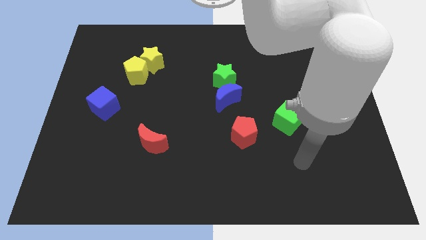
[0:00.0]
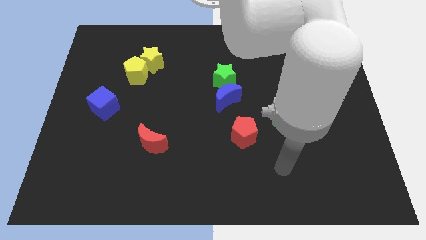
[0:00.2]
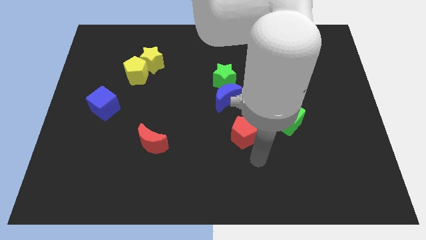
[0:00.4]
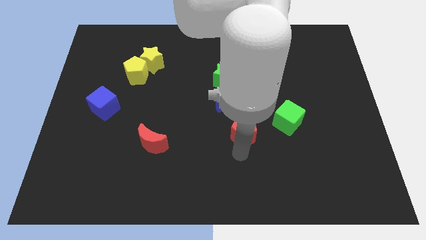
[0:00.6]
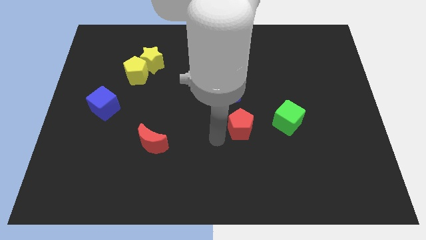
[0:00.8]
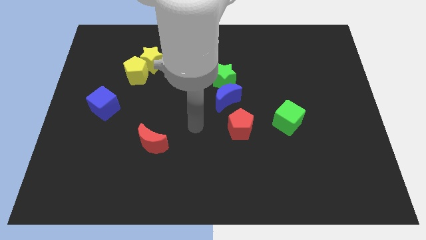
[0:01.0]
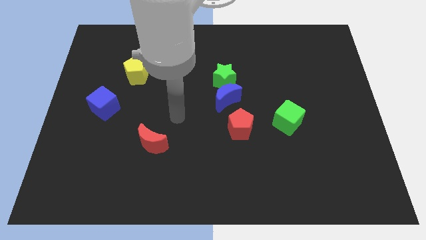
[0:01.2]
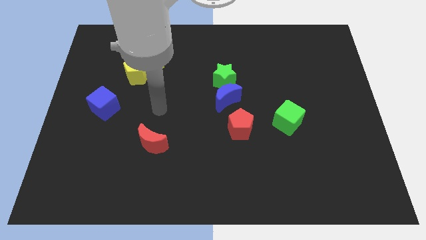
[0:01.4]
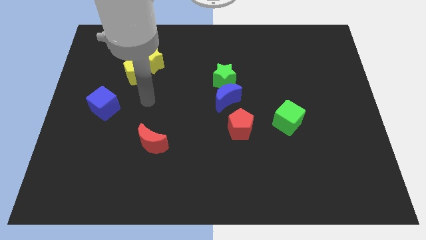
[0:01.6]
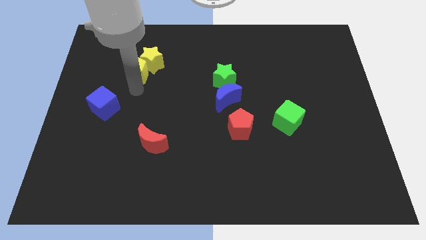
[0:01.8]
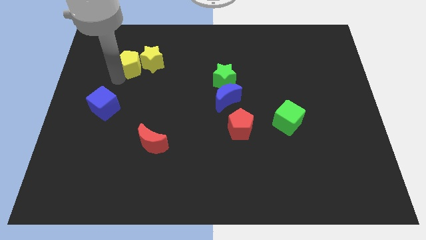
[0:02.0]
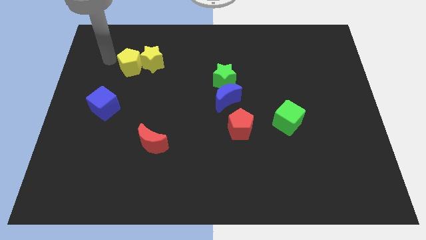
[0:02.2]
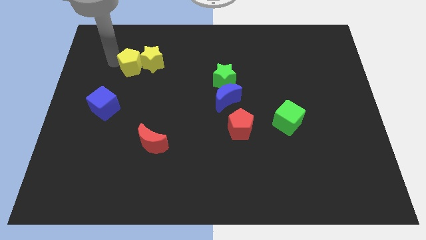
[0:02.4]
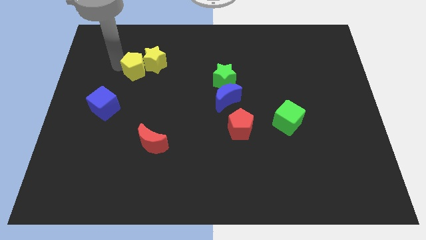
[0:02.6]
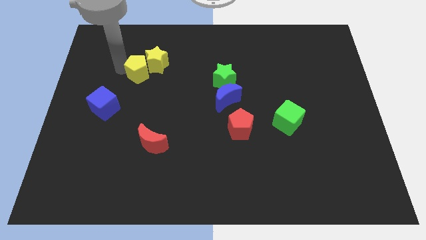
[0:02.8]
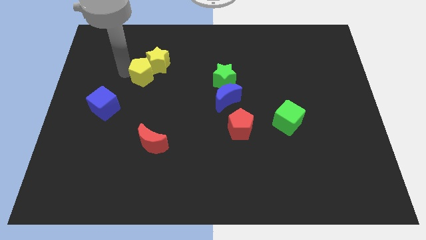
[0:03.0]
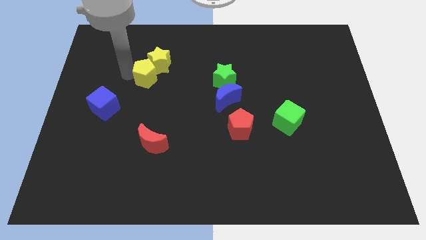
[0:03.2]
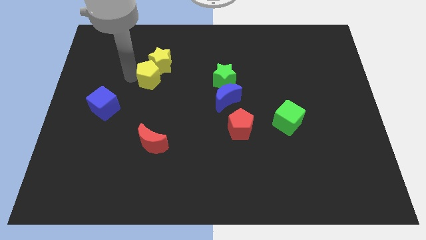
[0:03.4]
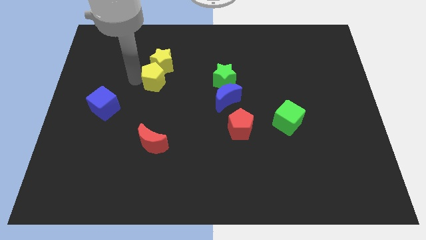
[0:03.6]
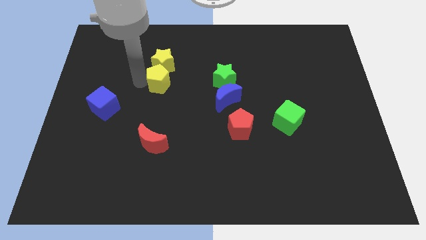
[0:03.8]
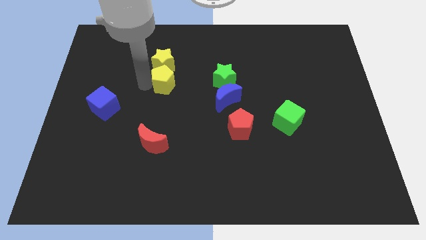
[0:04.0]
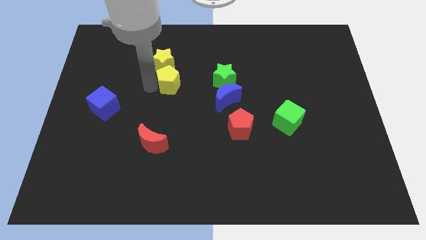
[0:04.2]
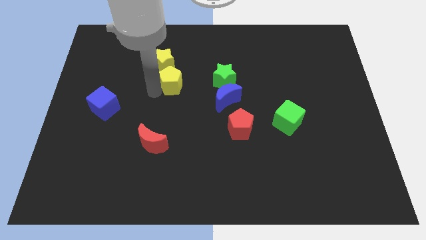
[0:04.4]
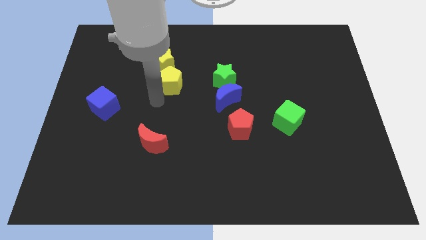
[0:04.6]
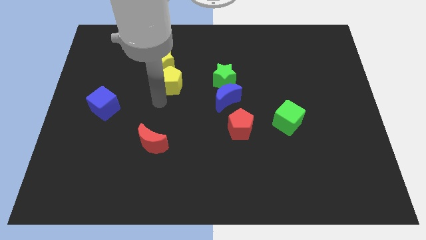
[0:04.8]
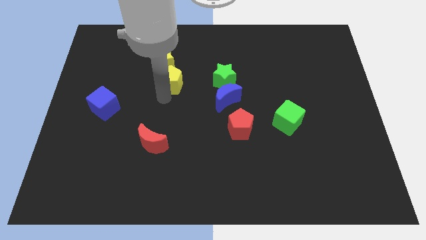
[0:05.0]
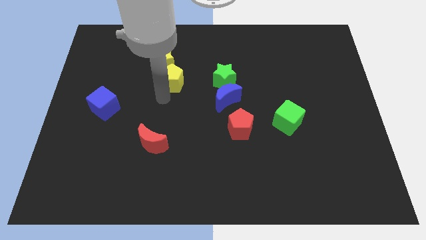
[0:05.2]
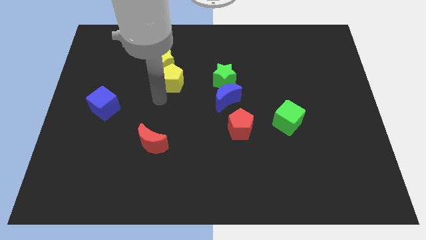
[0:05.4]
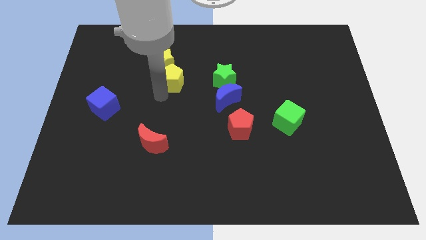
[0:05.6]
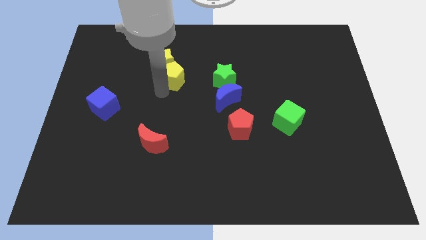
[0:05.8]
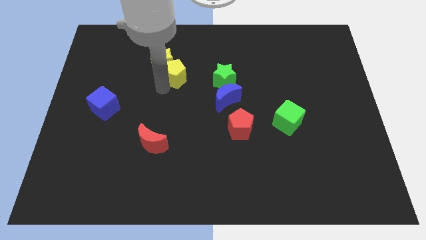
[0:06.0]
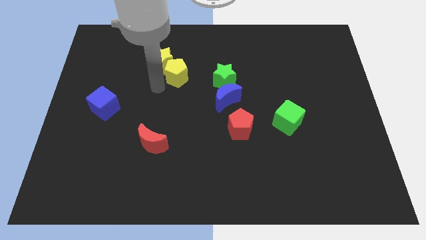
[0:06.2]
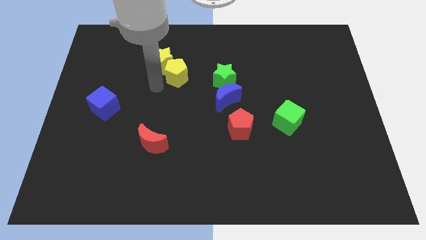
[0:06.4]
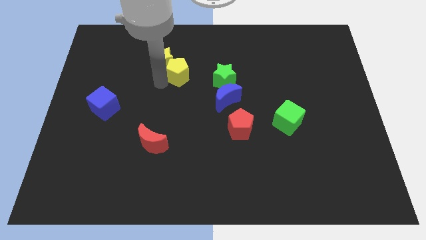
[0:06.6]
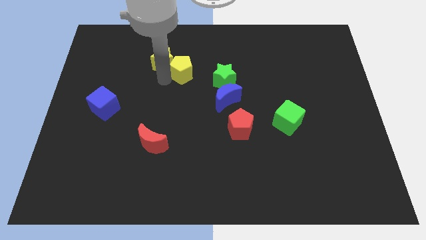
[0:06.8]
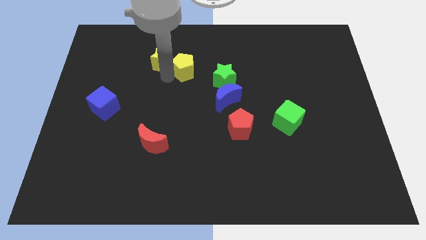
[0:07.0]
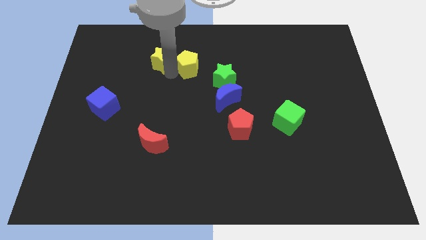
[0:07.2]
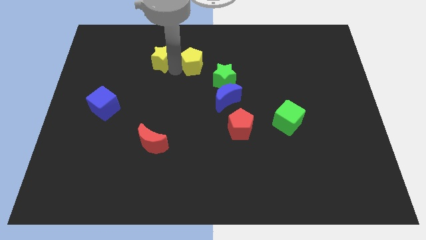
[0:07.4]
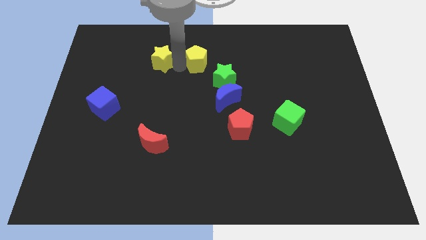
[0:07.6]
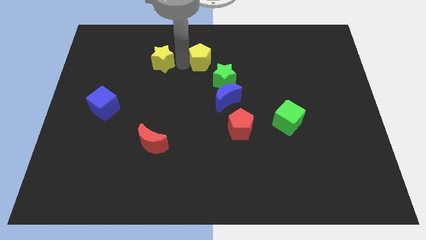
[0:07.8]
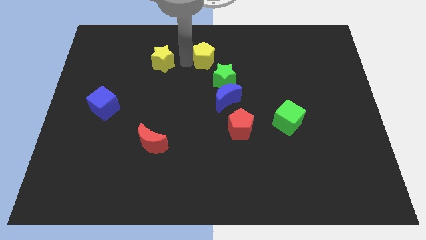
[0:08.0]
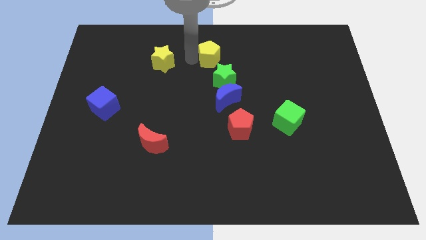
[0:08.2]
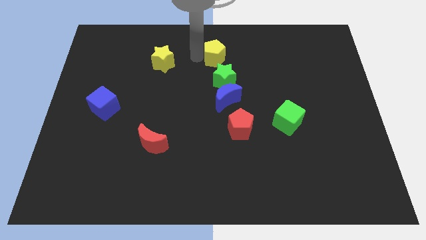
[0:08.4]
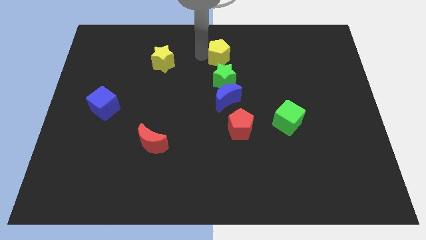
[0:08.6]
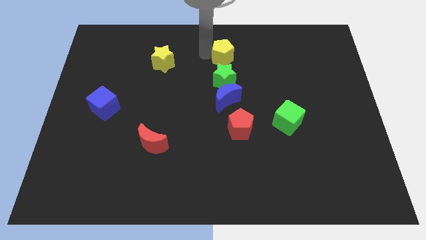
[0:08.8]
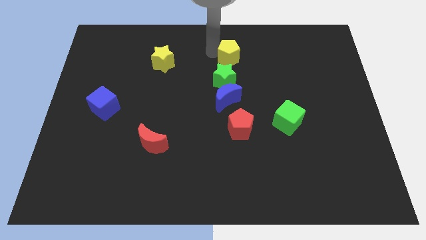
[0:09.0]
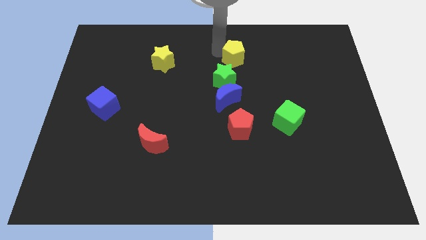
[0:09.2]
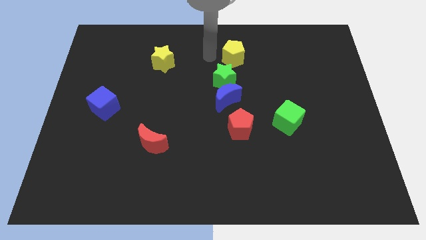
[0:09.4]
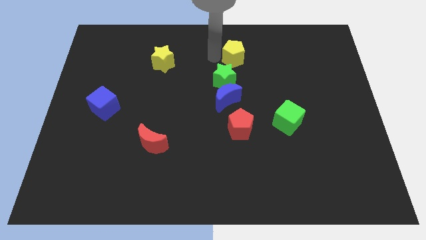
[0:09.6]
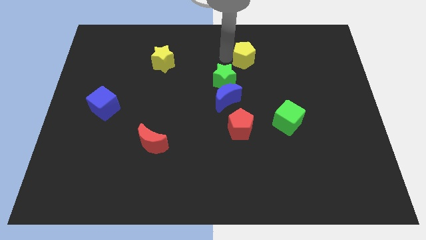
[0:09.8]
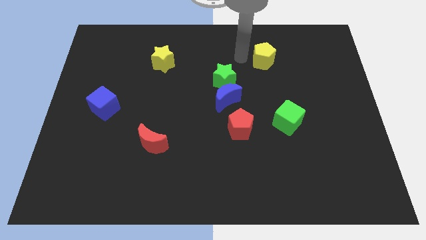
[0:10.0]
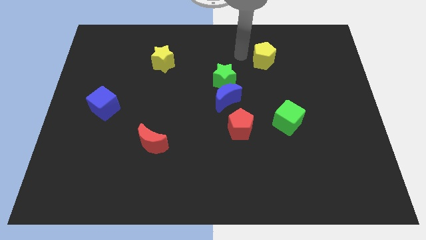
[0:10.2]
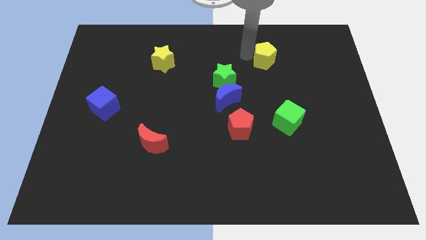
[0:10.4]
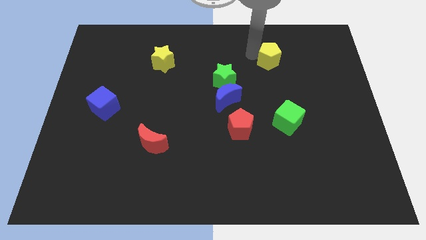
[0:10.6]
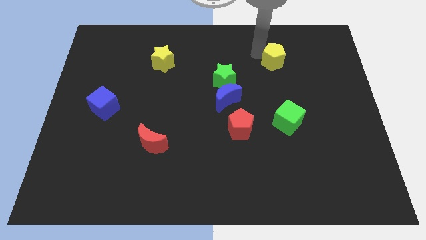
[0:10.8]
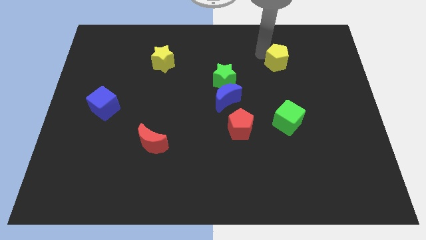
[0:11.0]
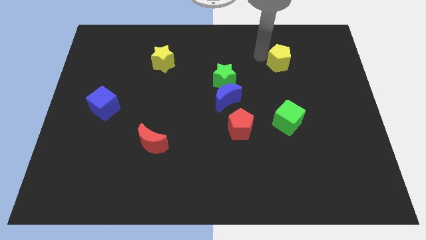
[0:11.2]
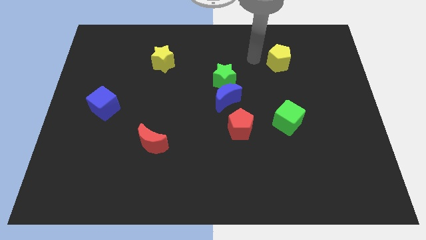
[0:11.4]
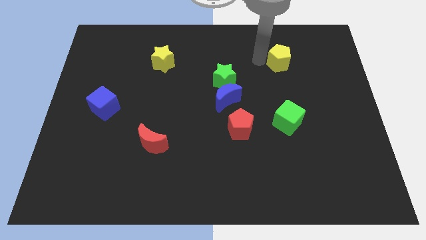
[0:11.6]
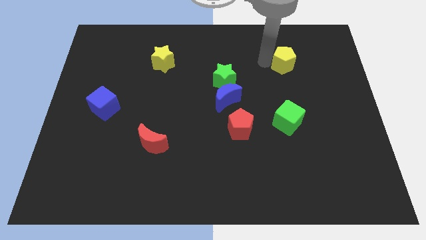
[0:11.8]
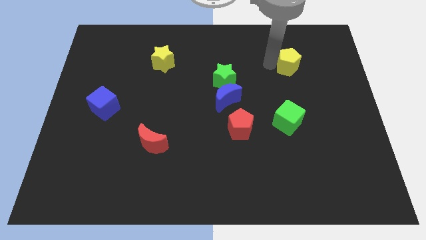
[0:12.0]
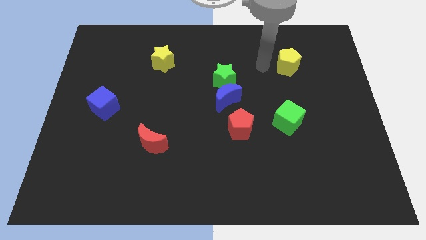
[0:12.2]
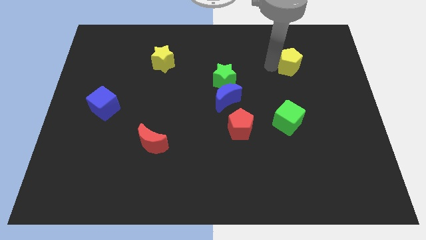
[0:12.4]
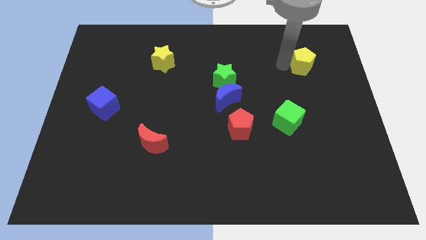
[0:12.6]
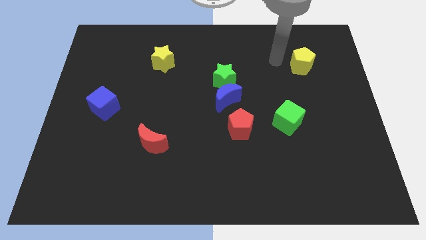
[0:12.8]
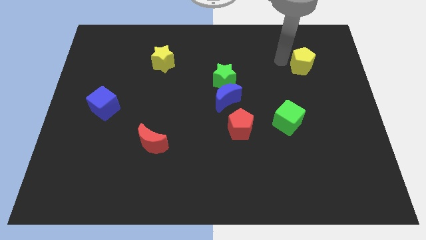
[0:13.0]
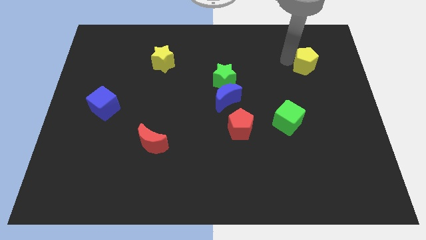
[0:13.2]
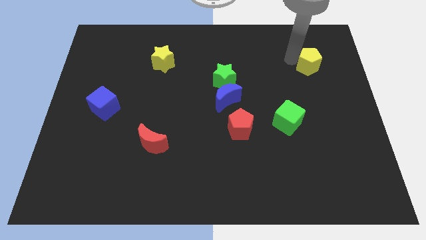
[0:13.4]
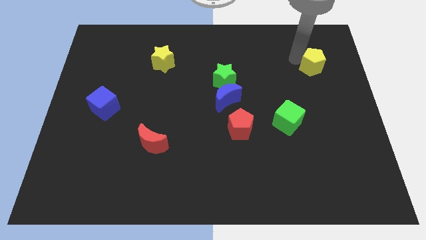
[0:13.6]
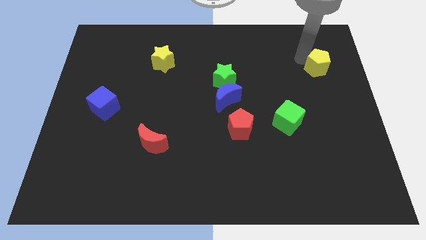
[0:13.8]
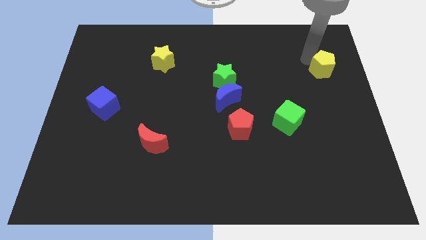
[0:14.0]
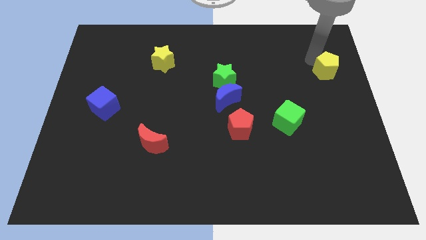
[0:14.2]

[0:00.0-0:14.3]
slide the yellow pentagon to the right side of the board
